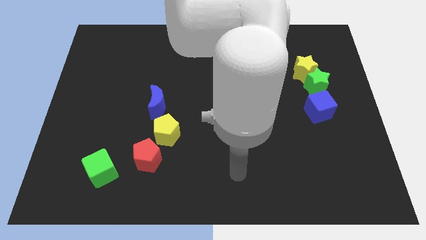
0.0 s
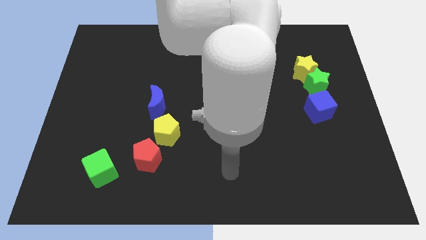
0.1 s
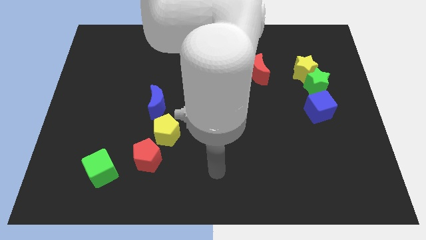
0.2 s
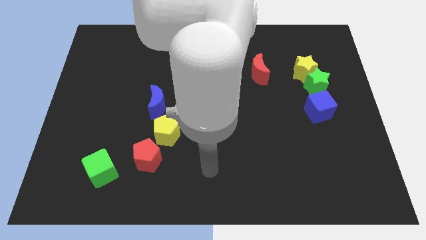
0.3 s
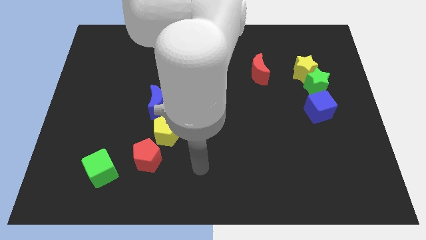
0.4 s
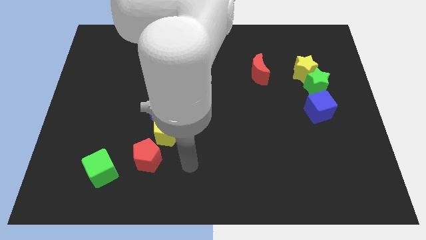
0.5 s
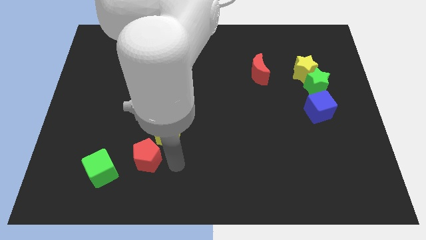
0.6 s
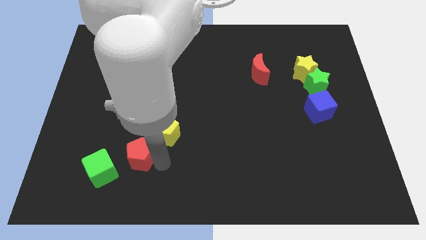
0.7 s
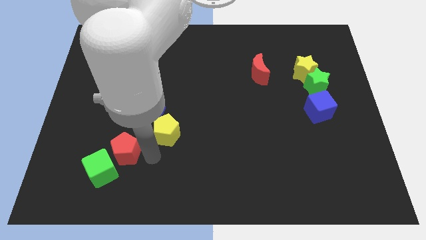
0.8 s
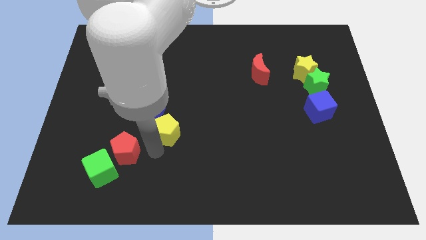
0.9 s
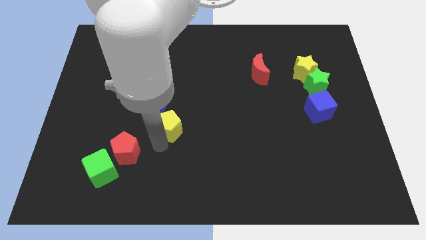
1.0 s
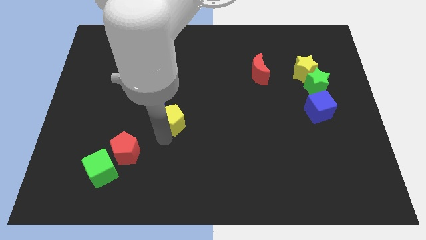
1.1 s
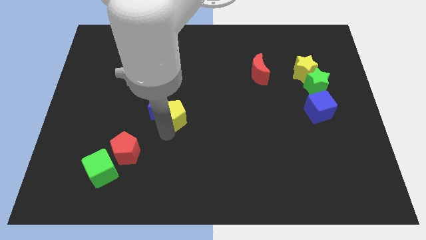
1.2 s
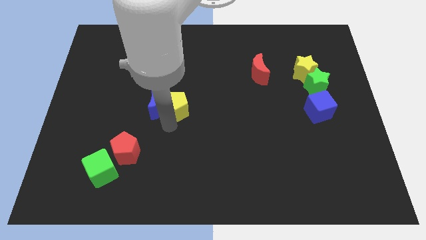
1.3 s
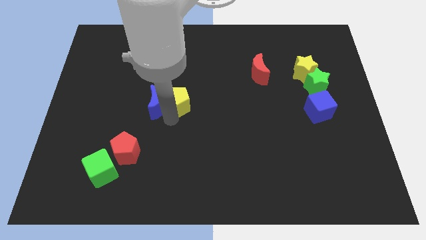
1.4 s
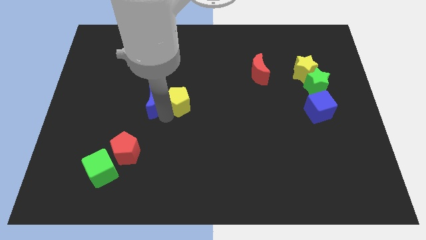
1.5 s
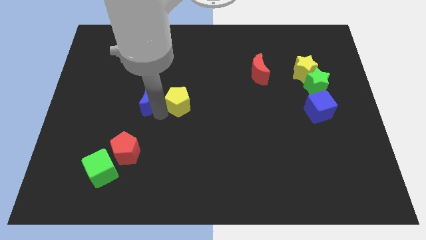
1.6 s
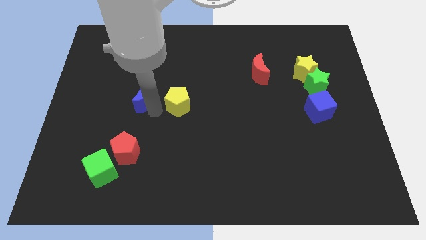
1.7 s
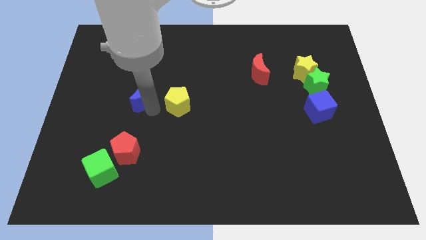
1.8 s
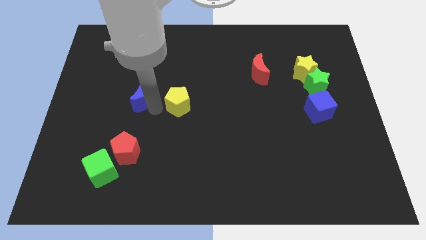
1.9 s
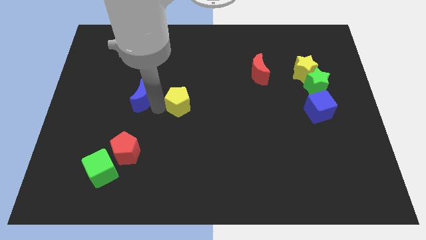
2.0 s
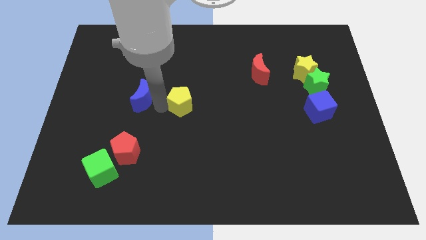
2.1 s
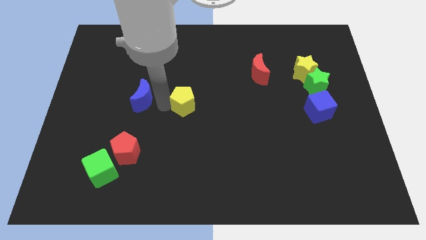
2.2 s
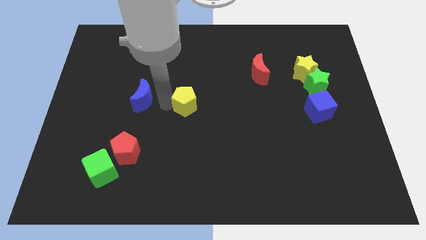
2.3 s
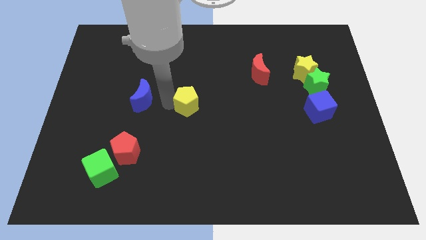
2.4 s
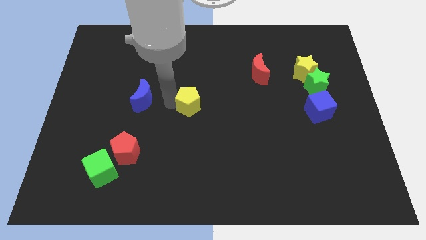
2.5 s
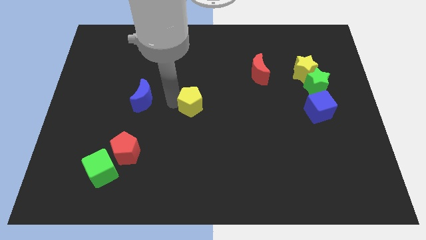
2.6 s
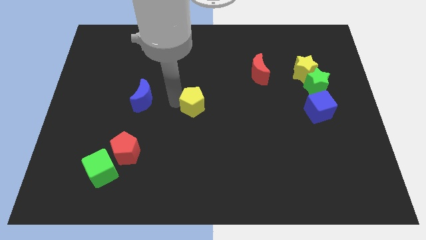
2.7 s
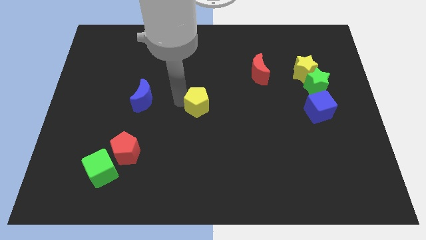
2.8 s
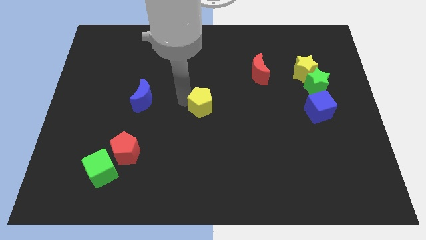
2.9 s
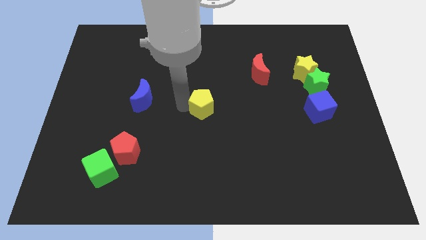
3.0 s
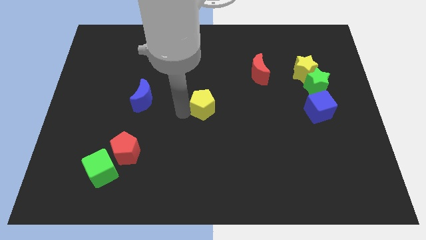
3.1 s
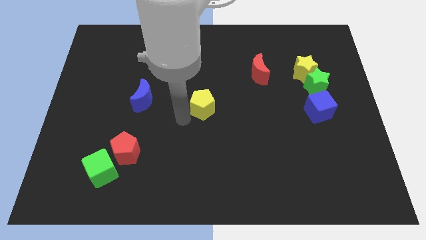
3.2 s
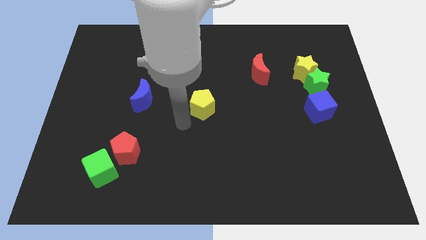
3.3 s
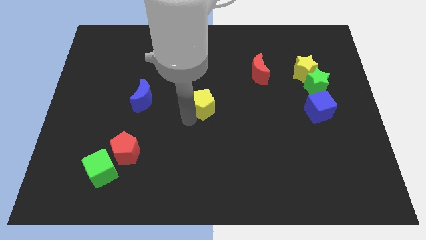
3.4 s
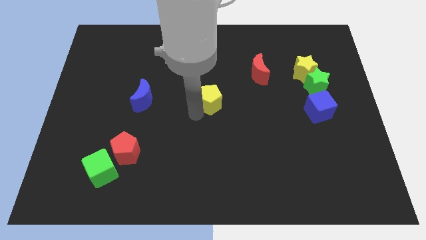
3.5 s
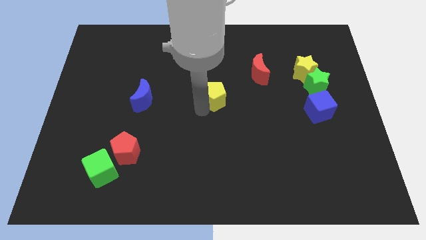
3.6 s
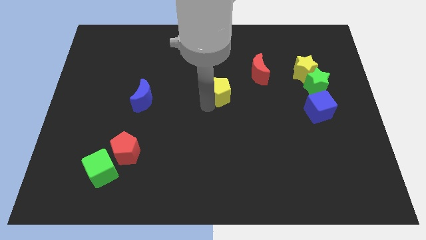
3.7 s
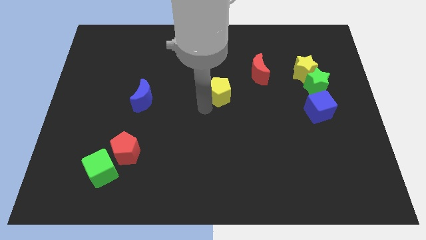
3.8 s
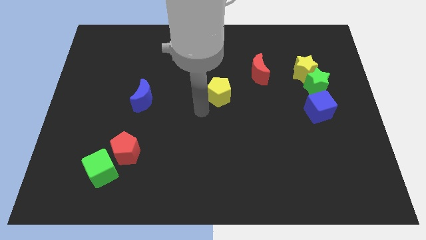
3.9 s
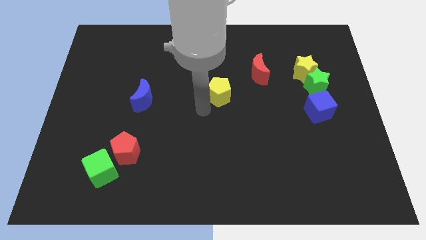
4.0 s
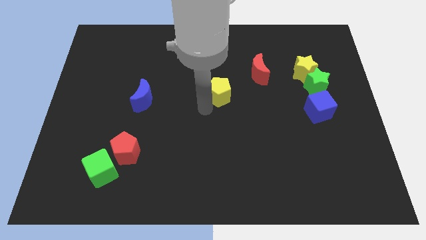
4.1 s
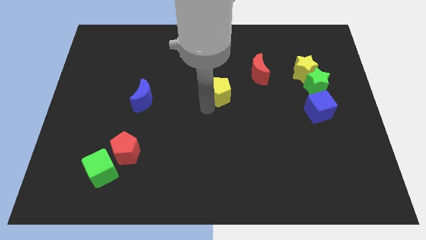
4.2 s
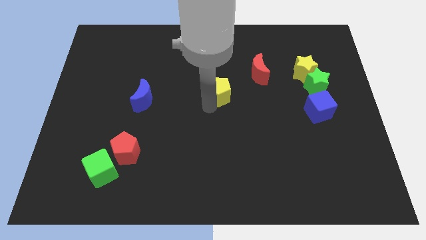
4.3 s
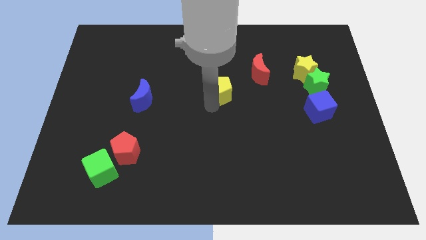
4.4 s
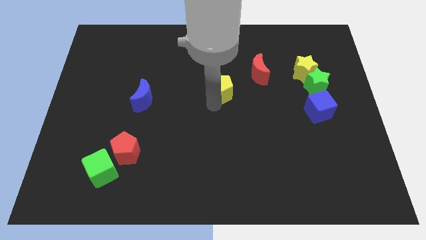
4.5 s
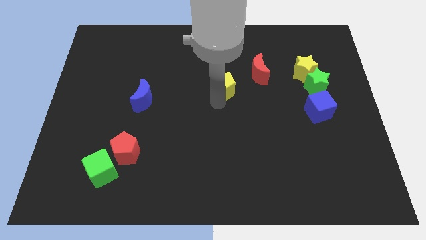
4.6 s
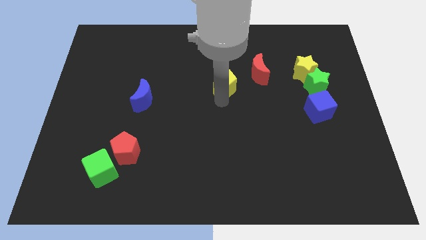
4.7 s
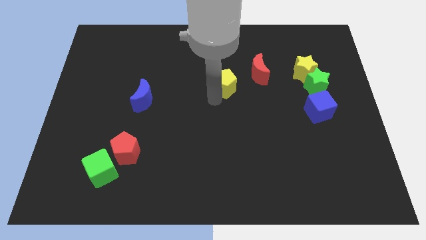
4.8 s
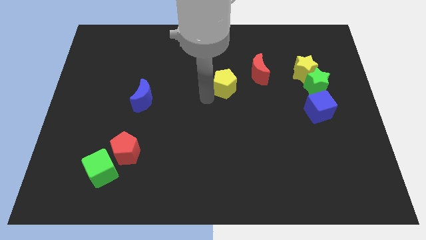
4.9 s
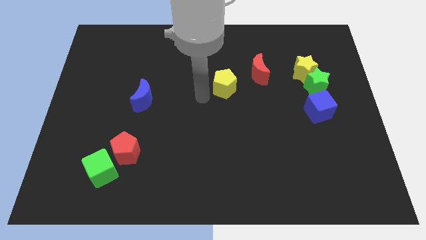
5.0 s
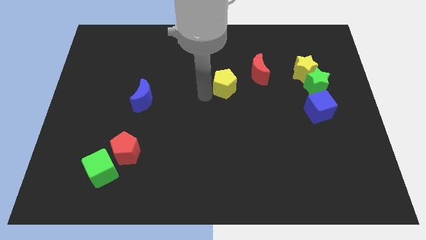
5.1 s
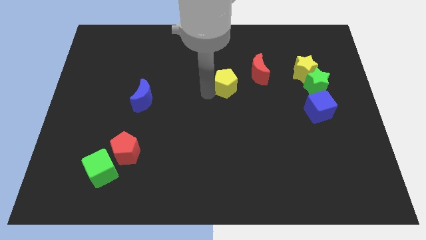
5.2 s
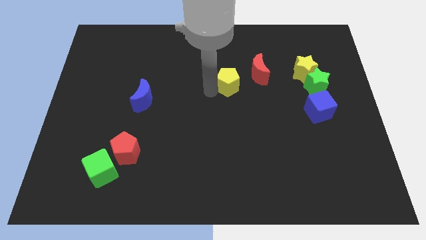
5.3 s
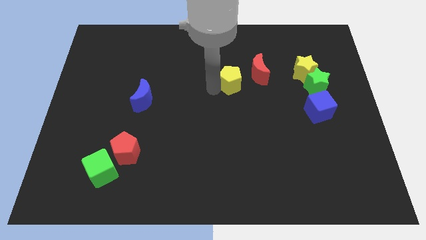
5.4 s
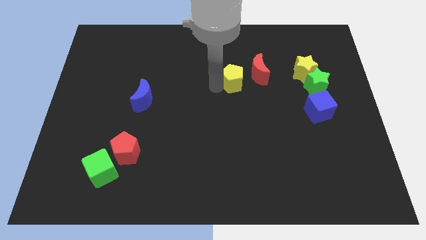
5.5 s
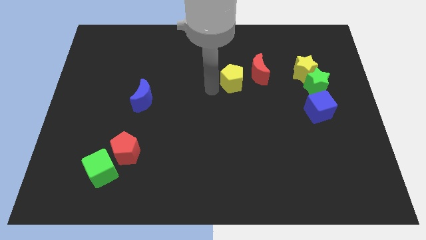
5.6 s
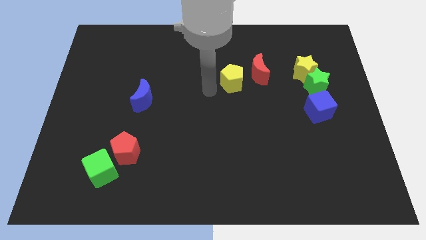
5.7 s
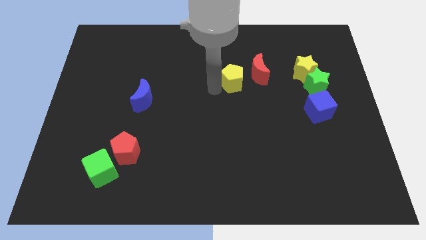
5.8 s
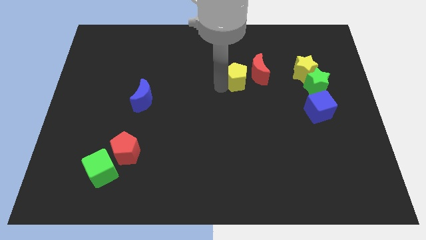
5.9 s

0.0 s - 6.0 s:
move the yellow pentagon close to the red moon

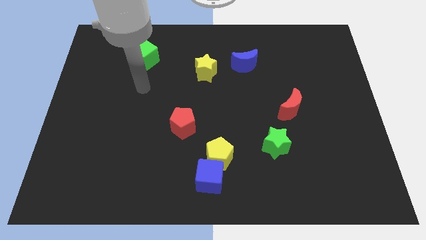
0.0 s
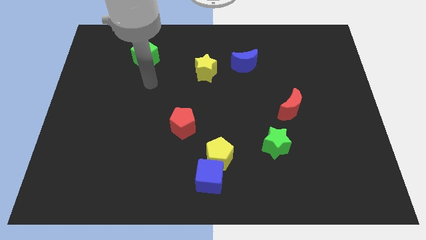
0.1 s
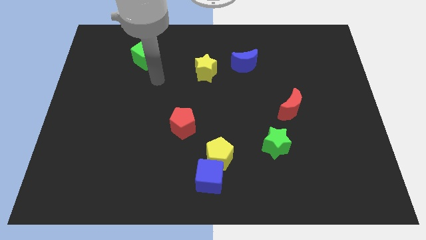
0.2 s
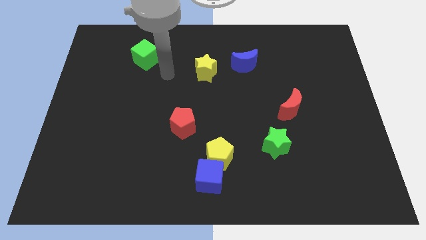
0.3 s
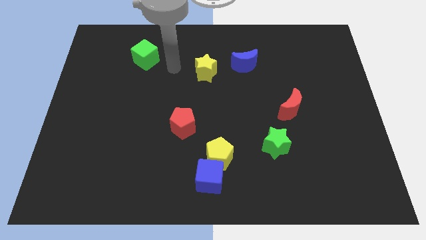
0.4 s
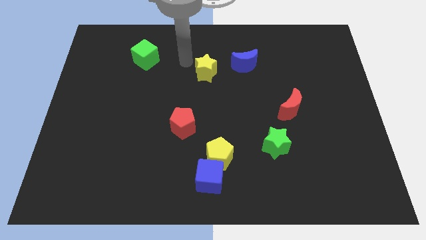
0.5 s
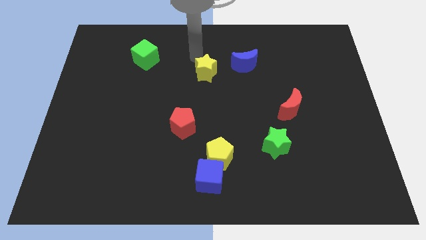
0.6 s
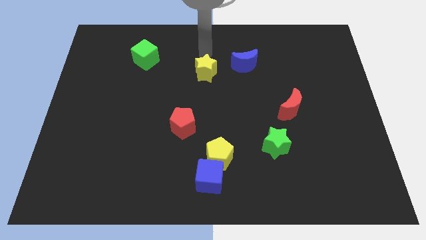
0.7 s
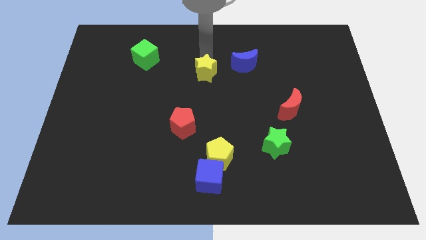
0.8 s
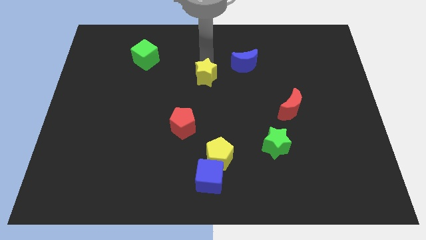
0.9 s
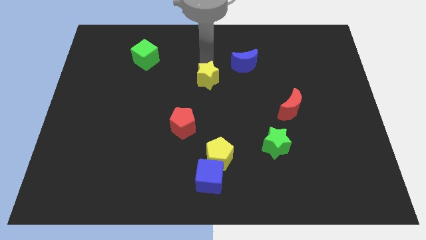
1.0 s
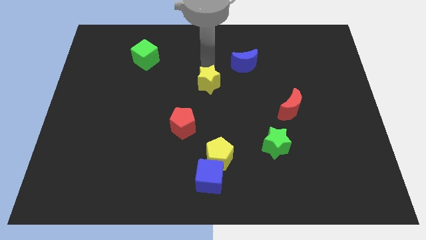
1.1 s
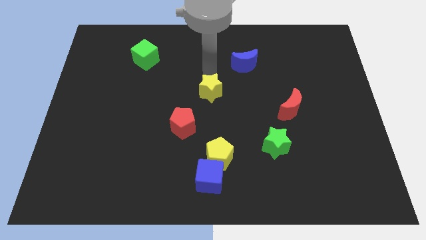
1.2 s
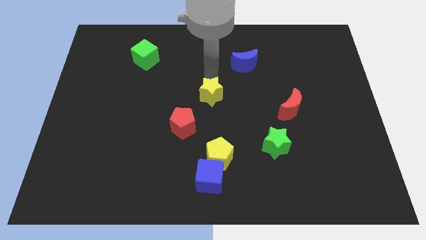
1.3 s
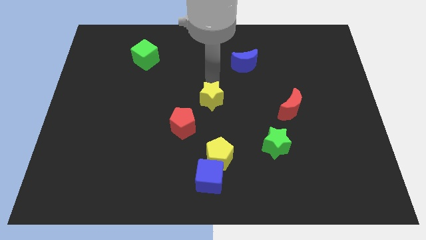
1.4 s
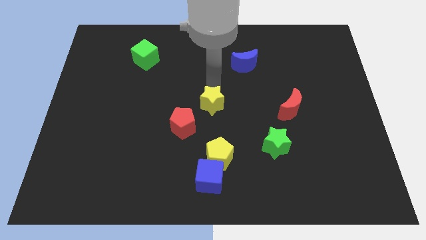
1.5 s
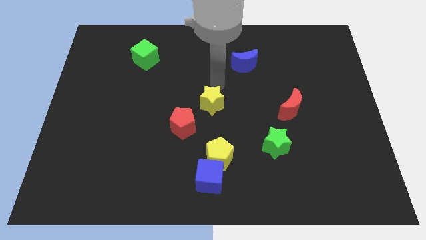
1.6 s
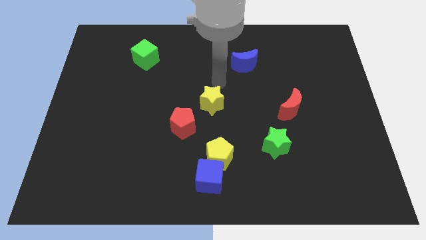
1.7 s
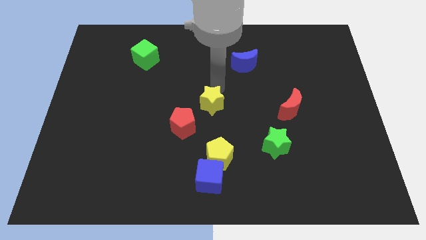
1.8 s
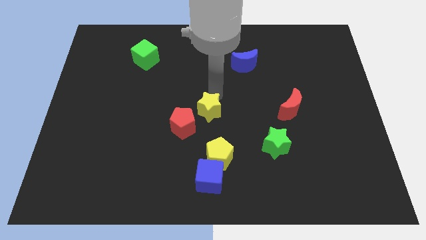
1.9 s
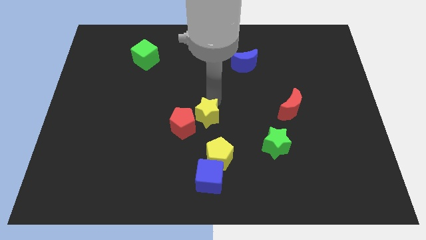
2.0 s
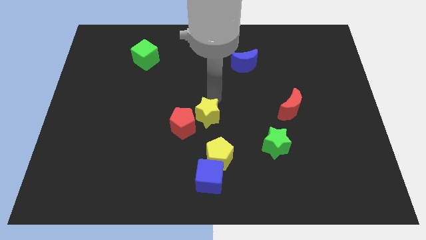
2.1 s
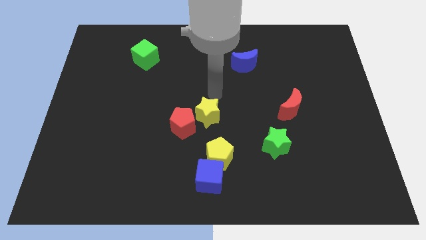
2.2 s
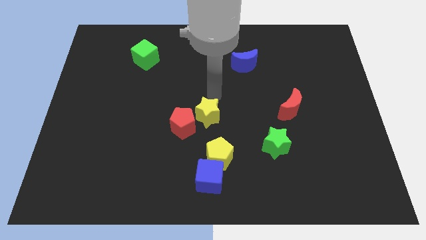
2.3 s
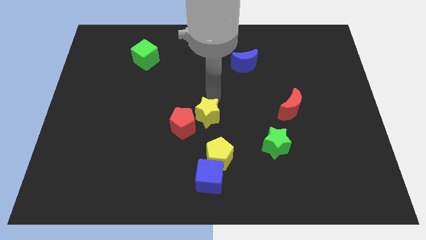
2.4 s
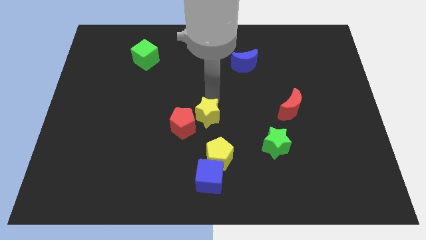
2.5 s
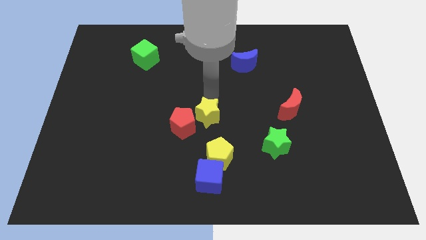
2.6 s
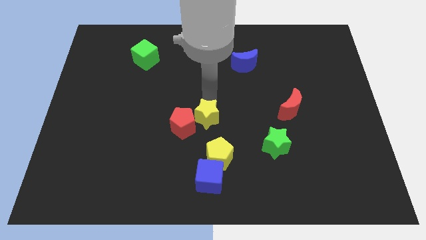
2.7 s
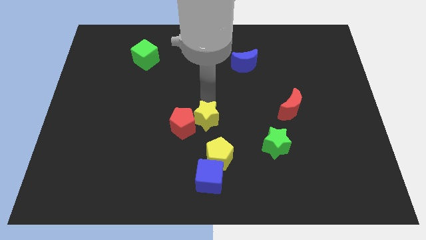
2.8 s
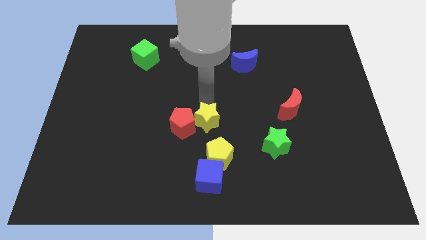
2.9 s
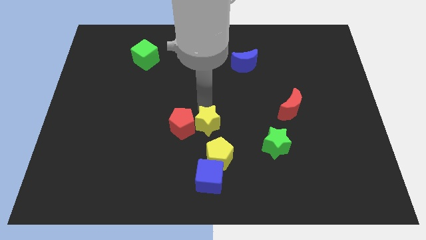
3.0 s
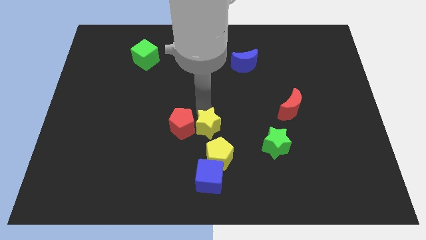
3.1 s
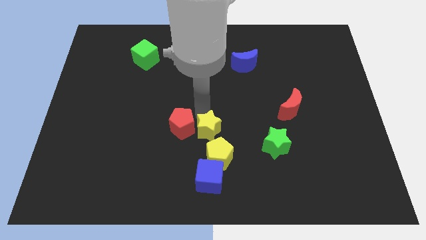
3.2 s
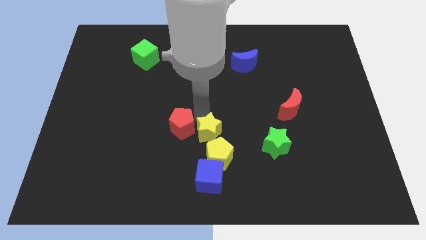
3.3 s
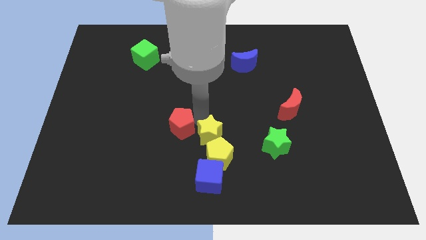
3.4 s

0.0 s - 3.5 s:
push the yellow star next to the yellow pentagon
